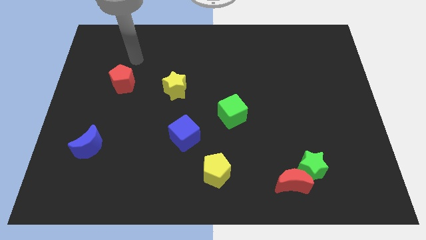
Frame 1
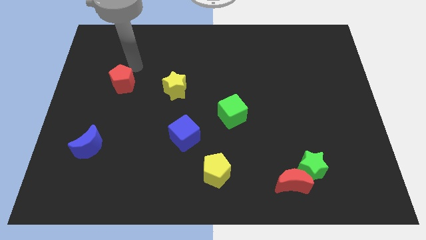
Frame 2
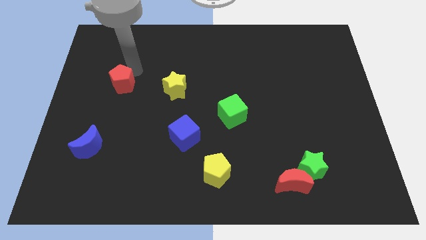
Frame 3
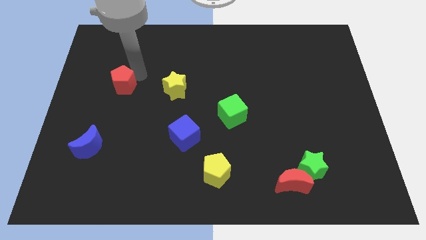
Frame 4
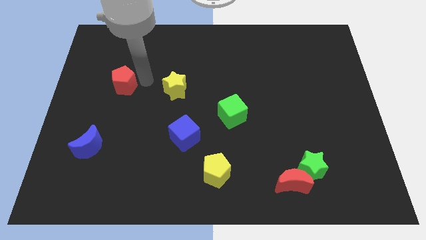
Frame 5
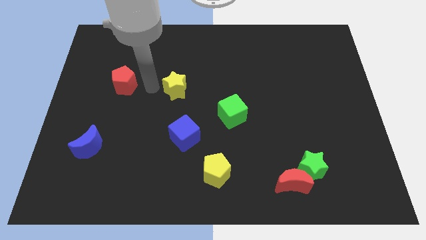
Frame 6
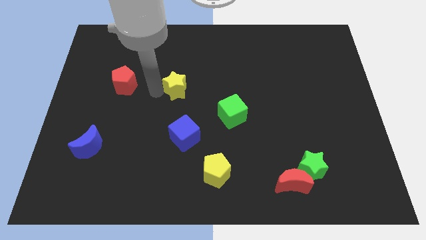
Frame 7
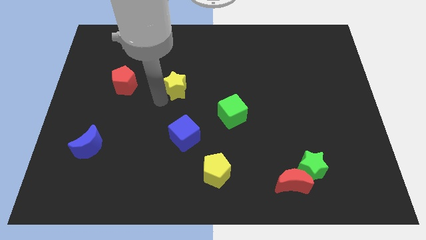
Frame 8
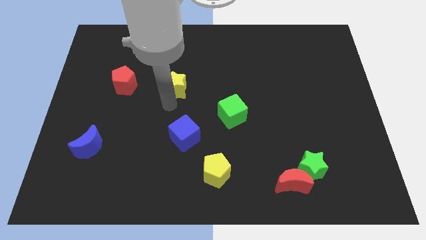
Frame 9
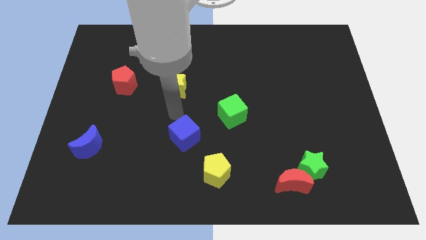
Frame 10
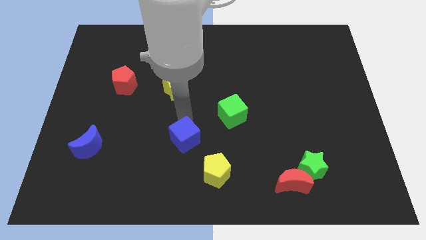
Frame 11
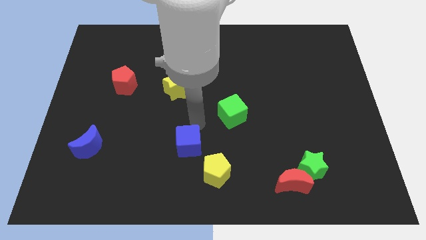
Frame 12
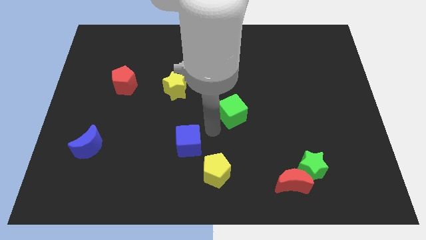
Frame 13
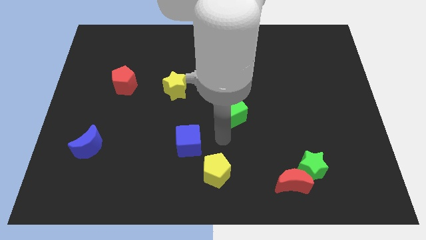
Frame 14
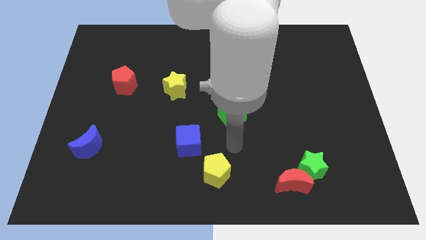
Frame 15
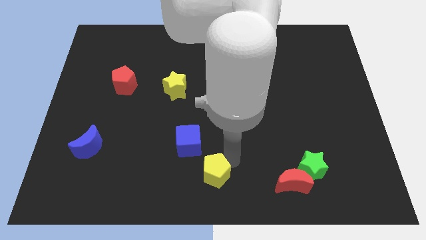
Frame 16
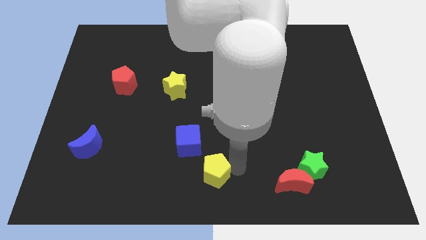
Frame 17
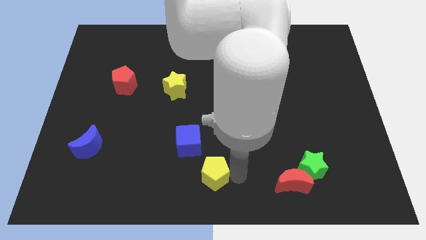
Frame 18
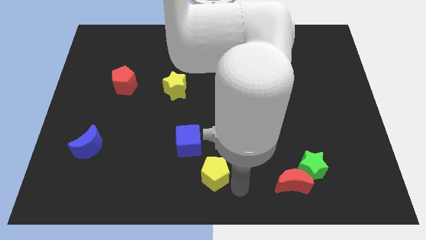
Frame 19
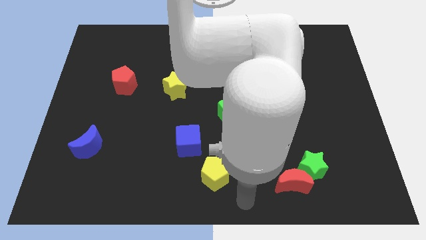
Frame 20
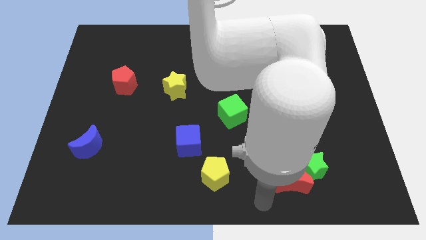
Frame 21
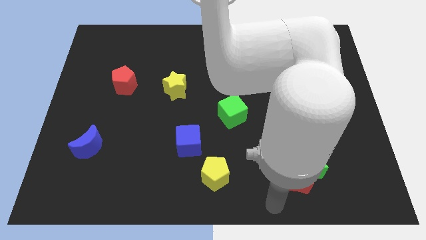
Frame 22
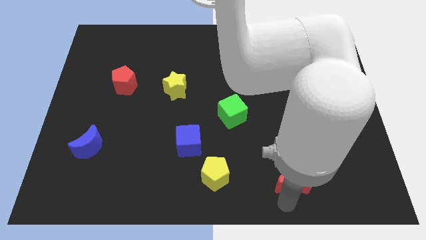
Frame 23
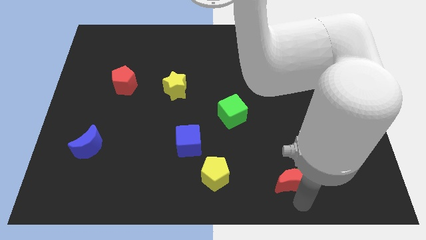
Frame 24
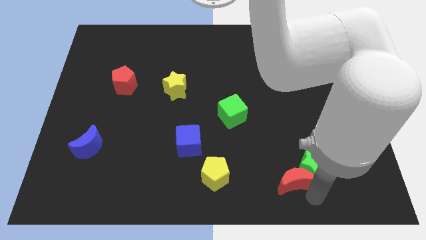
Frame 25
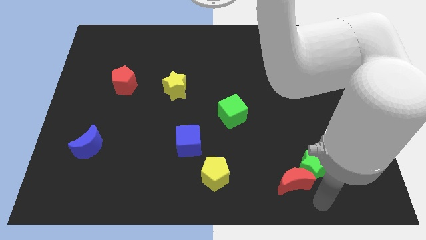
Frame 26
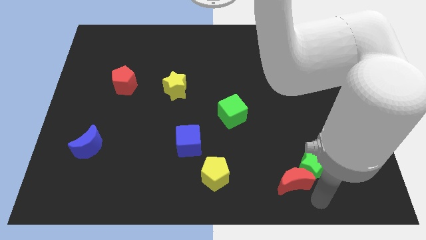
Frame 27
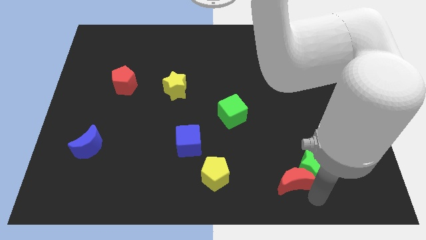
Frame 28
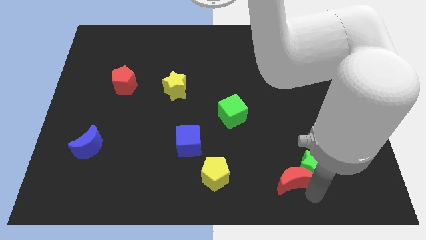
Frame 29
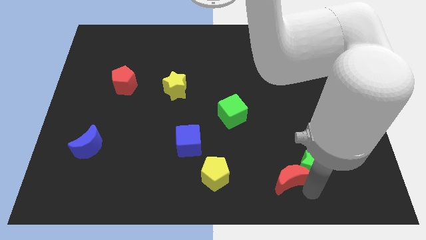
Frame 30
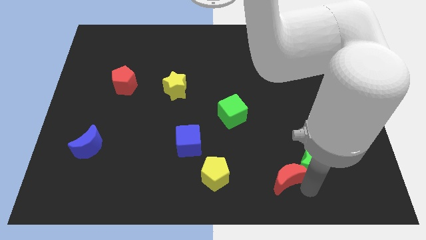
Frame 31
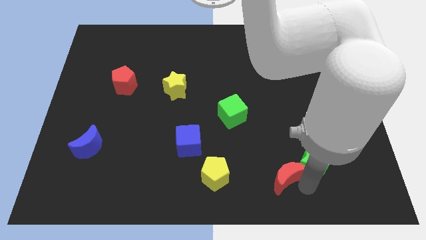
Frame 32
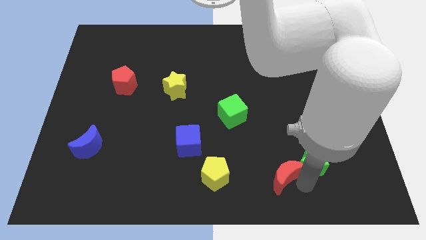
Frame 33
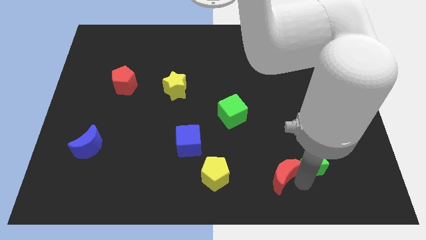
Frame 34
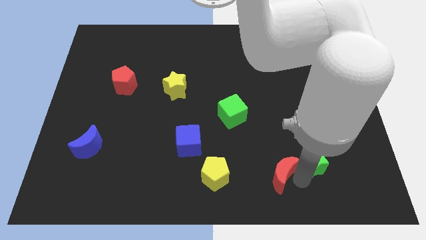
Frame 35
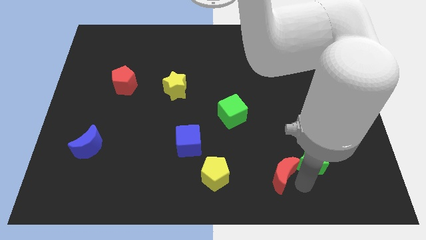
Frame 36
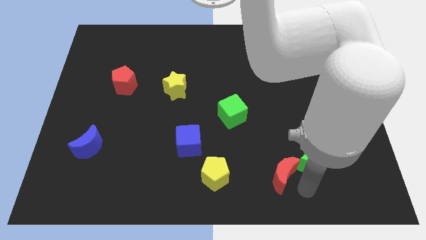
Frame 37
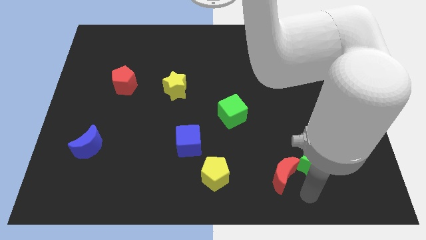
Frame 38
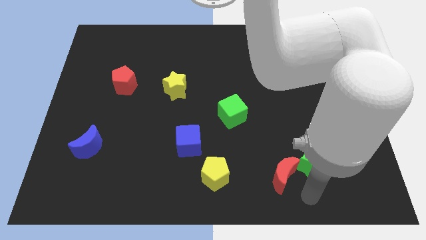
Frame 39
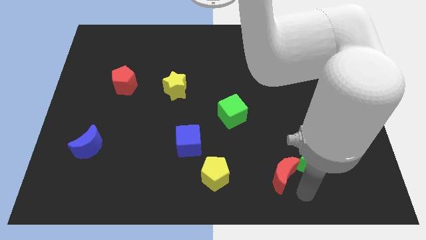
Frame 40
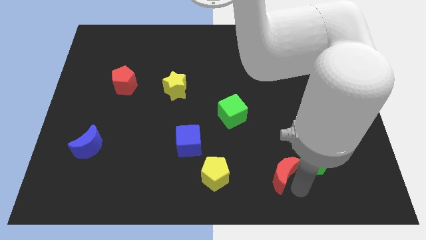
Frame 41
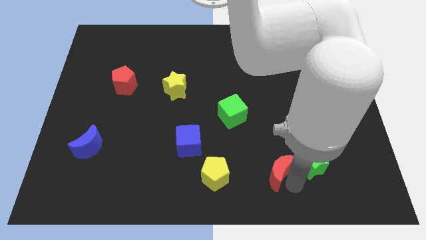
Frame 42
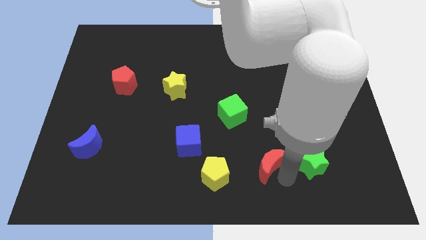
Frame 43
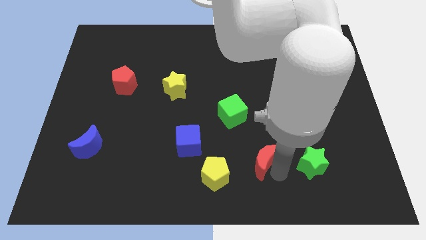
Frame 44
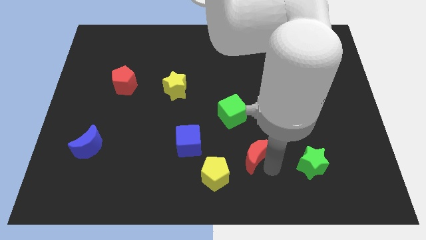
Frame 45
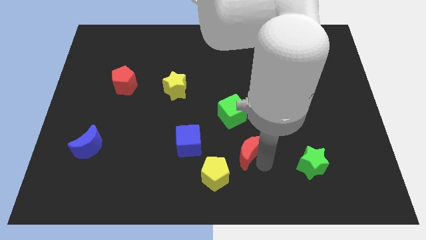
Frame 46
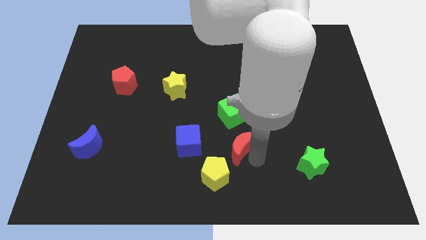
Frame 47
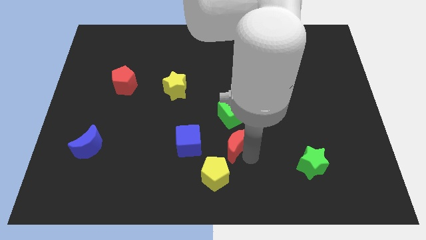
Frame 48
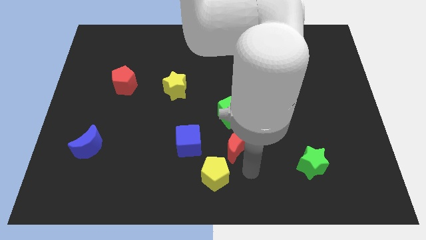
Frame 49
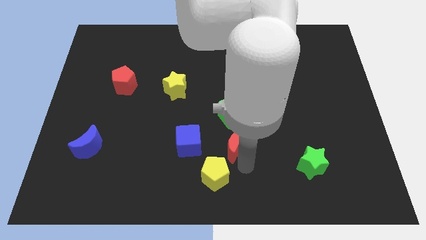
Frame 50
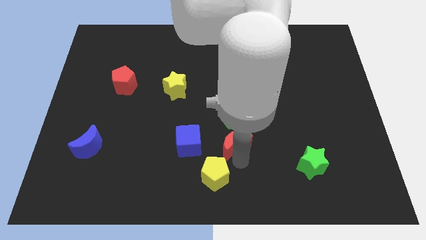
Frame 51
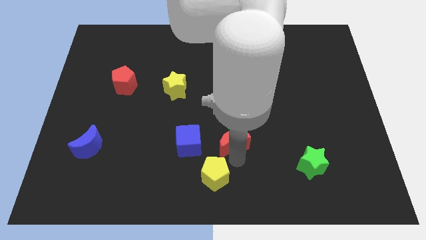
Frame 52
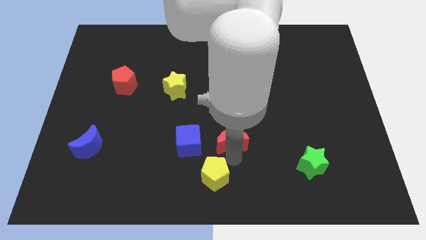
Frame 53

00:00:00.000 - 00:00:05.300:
push the red moon to the middle of the board

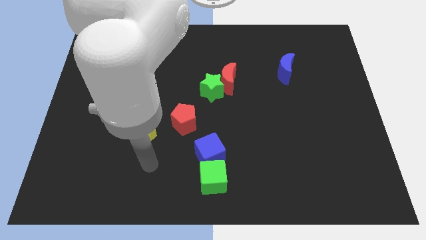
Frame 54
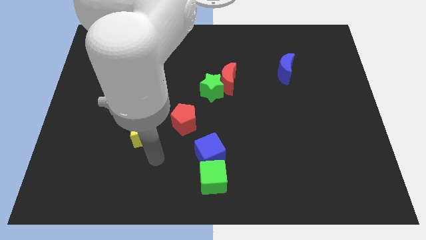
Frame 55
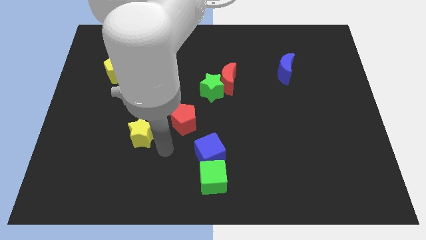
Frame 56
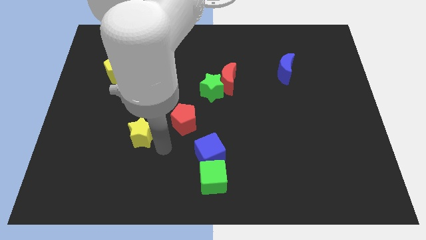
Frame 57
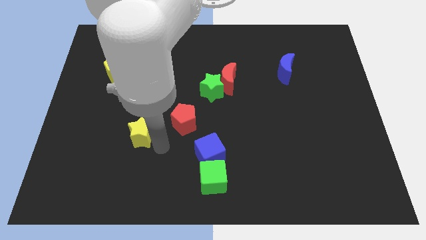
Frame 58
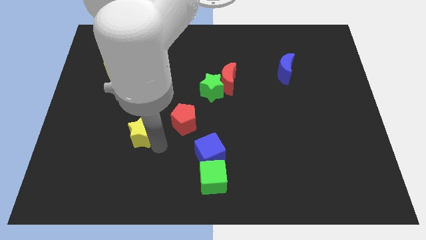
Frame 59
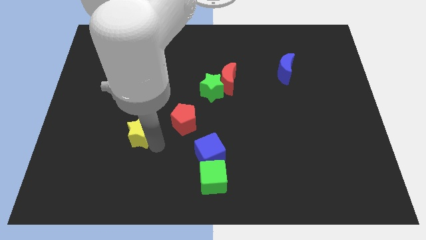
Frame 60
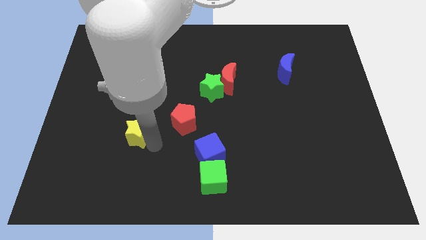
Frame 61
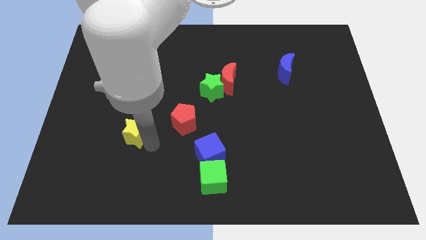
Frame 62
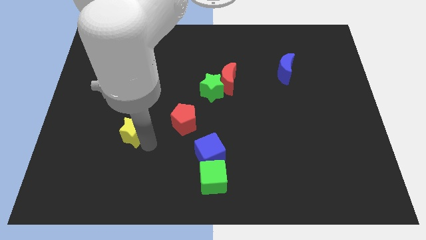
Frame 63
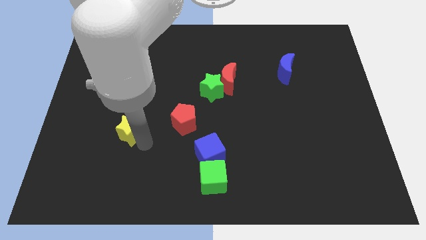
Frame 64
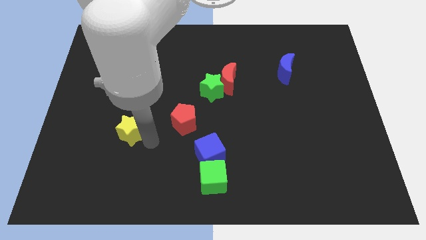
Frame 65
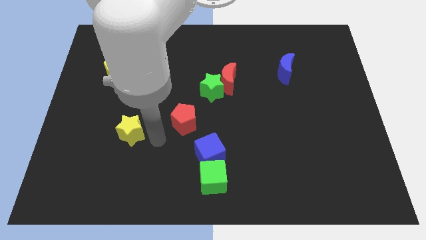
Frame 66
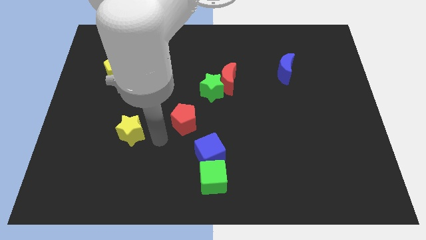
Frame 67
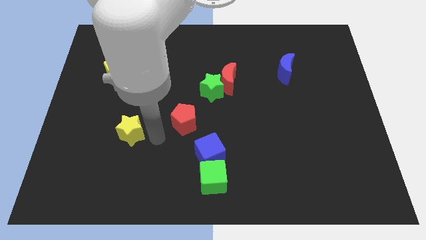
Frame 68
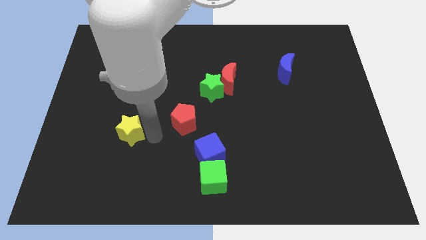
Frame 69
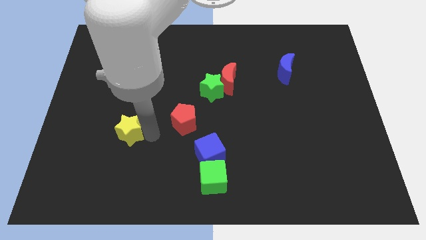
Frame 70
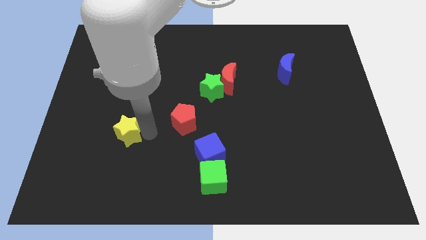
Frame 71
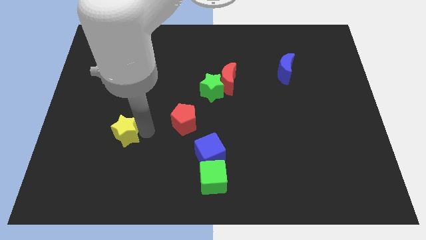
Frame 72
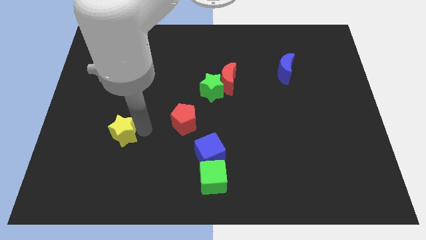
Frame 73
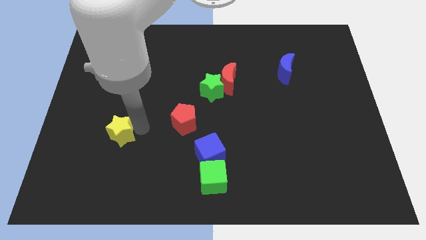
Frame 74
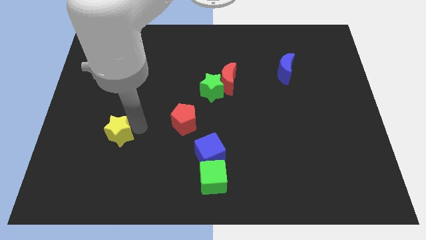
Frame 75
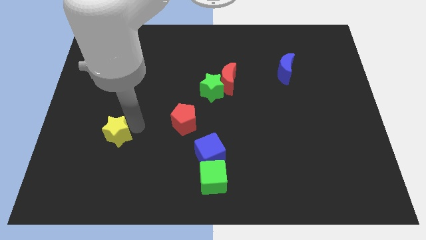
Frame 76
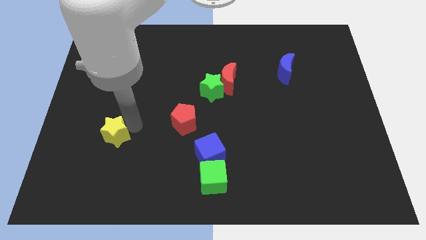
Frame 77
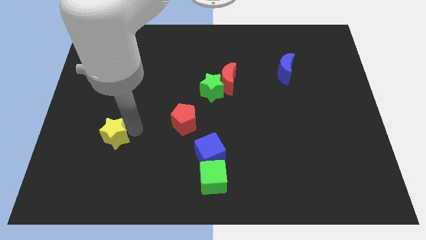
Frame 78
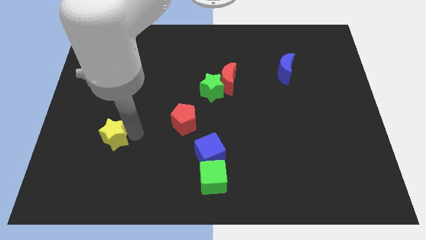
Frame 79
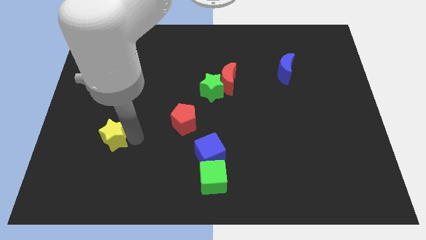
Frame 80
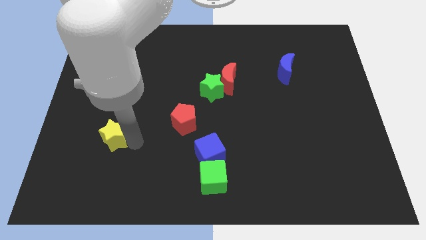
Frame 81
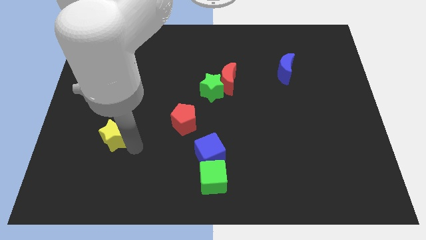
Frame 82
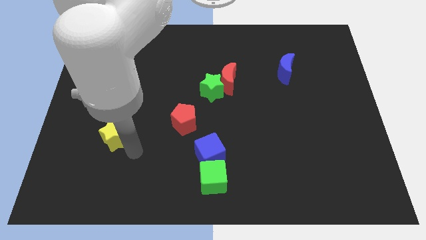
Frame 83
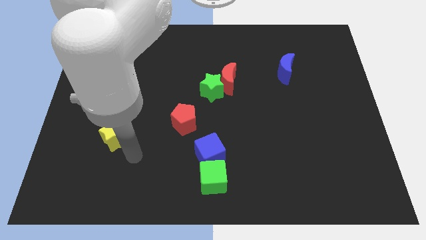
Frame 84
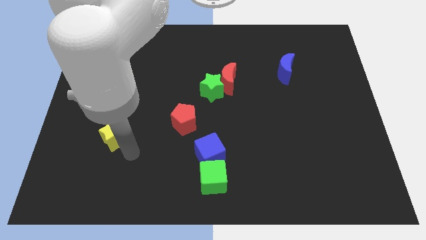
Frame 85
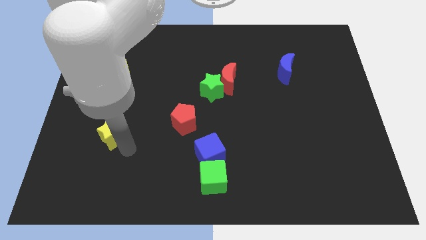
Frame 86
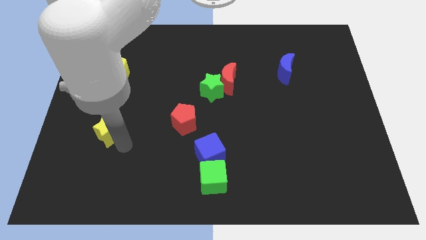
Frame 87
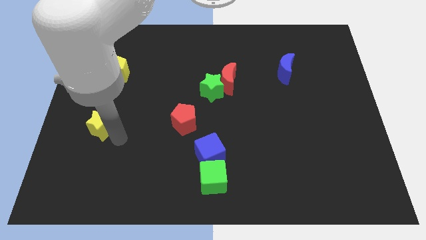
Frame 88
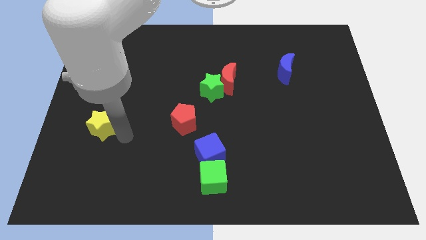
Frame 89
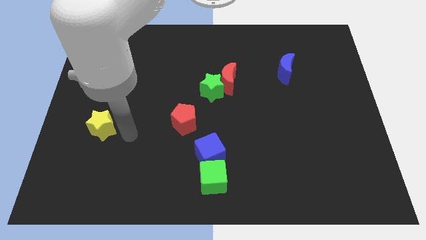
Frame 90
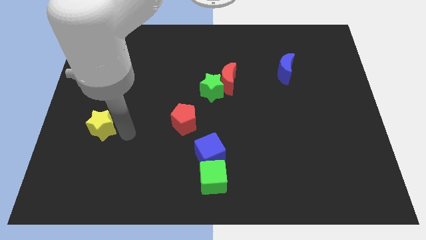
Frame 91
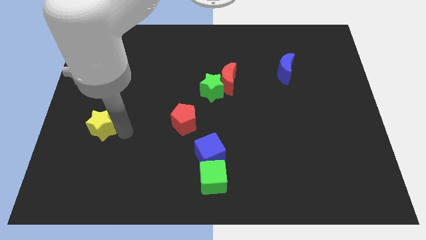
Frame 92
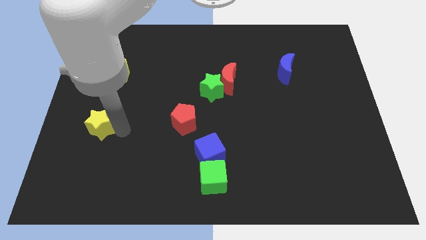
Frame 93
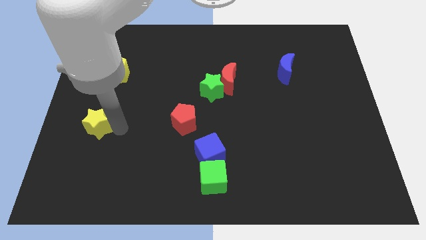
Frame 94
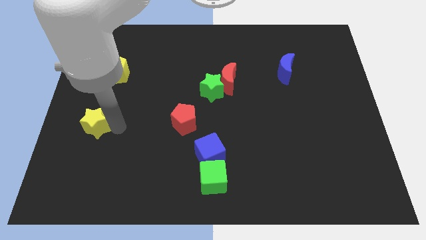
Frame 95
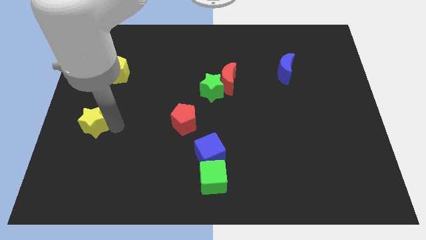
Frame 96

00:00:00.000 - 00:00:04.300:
slide the yellow star to the left side of the board
